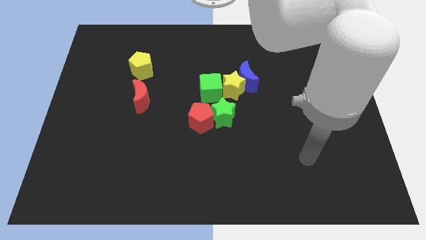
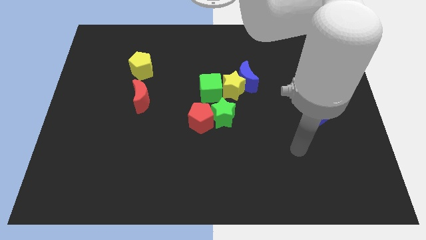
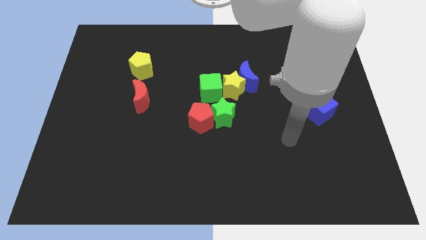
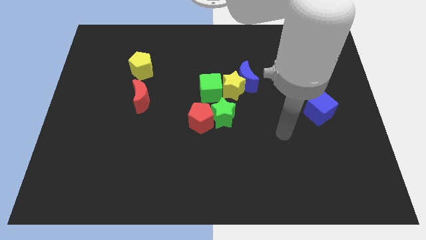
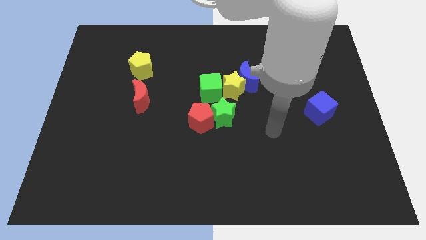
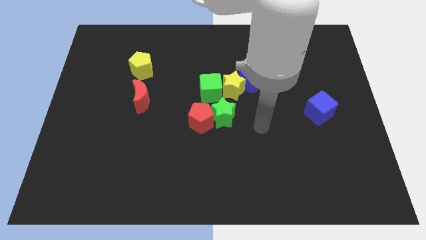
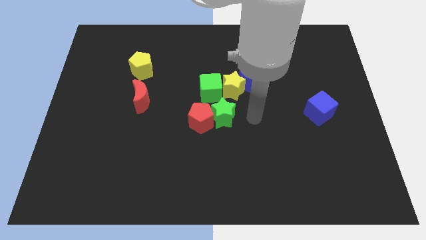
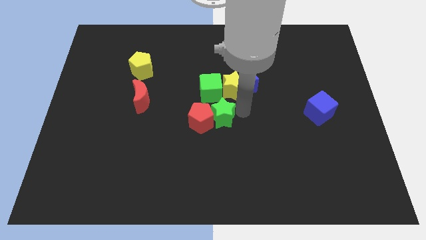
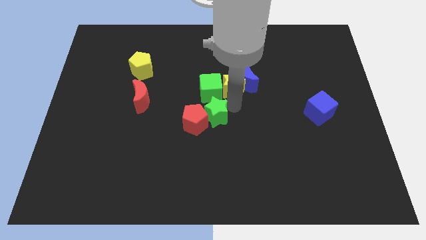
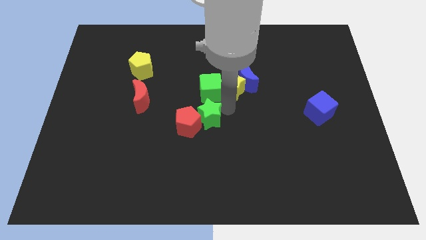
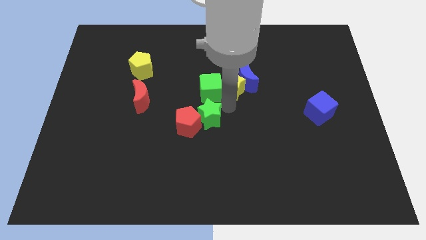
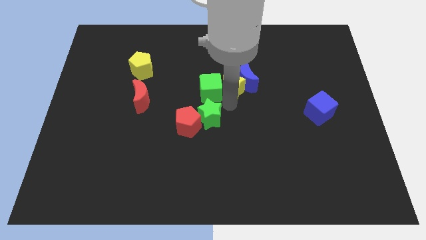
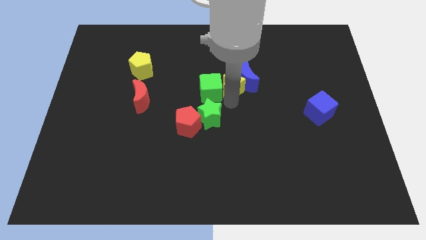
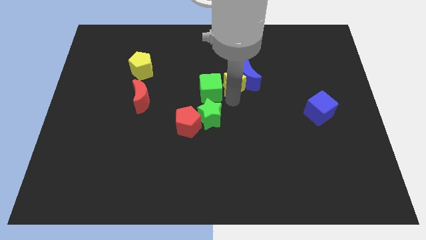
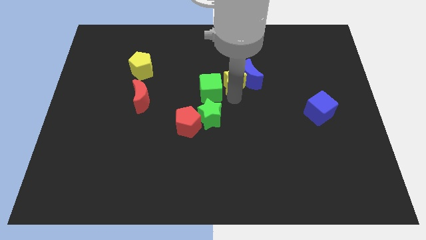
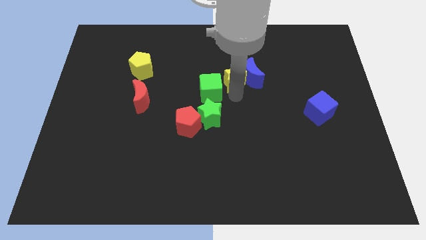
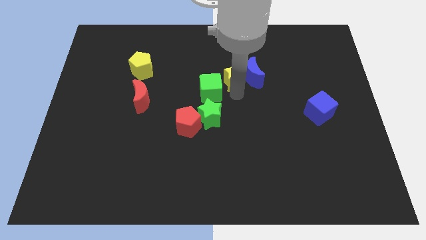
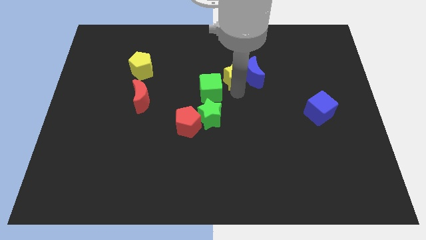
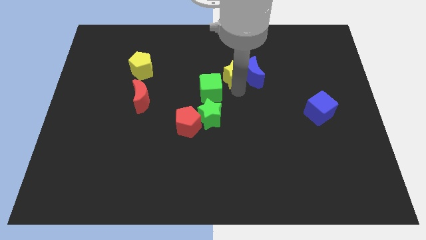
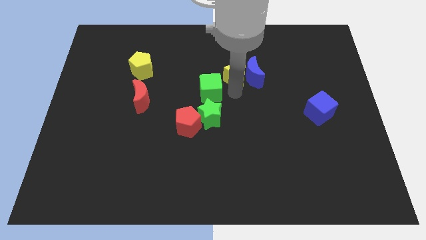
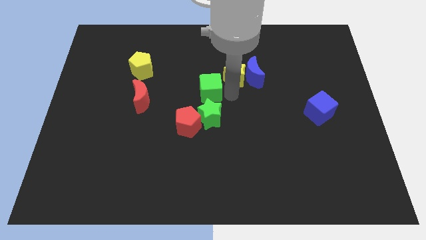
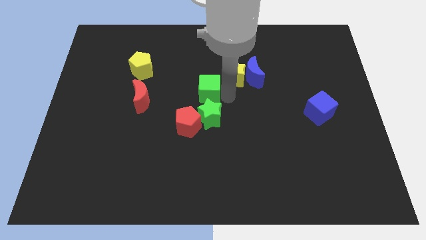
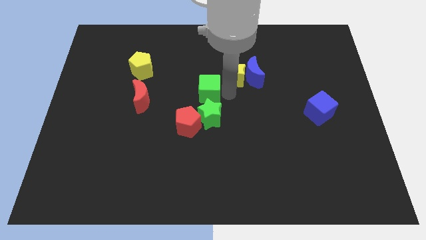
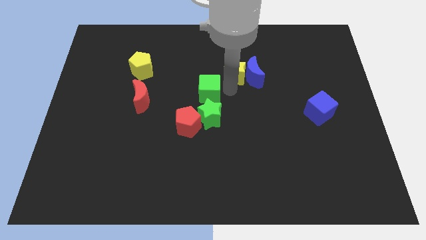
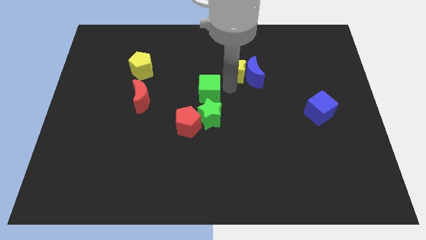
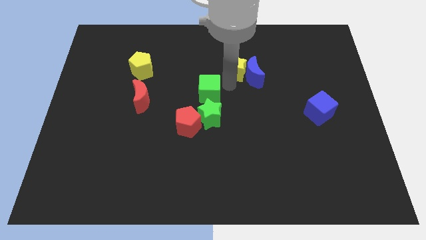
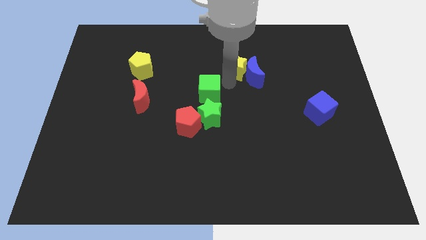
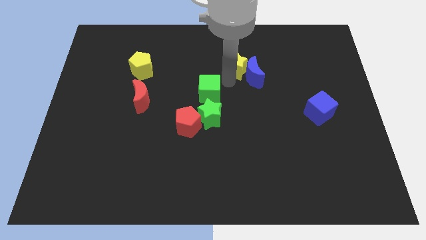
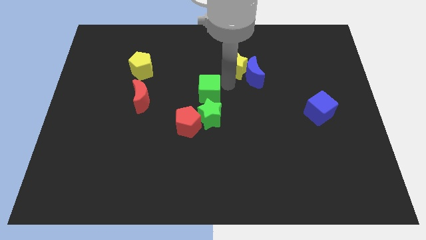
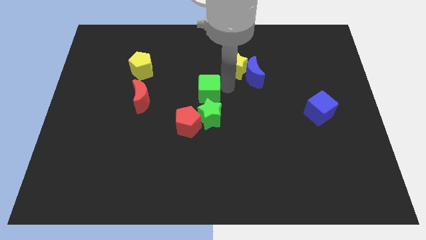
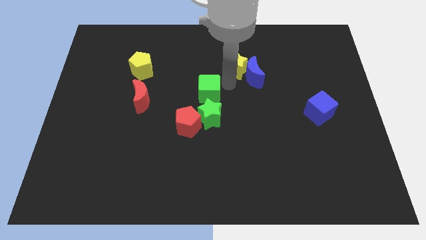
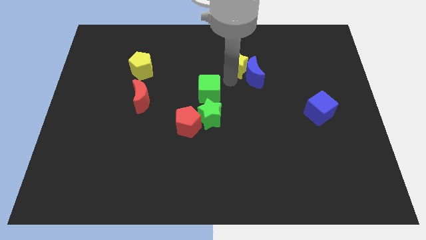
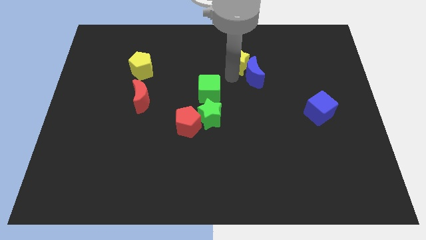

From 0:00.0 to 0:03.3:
pull the yellow star apart from the blue moon, green cube, and green star

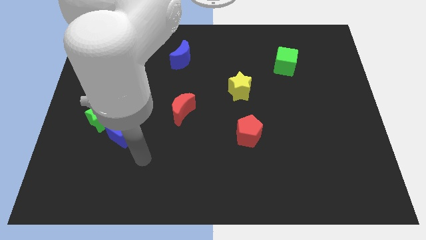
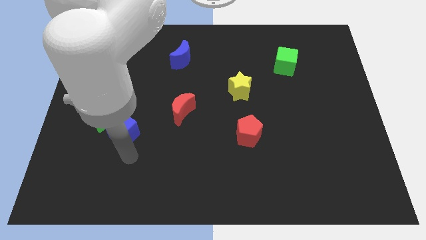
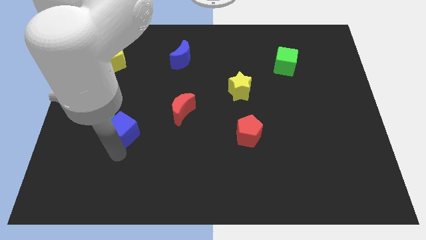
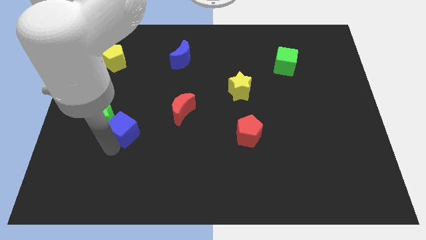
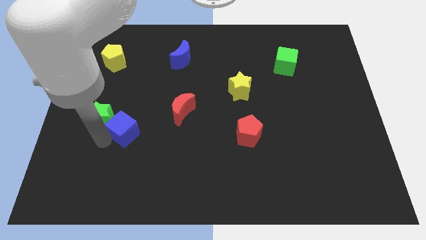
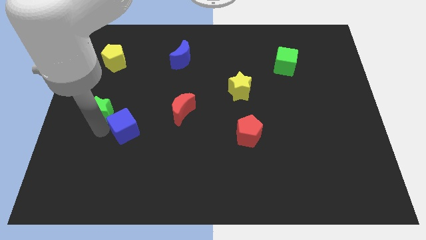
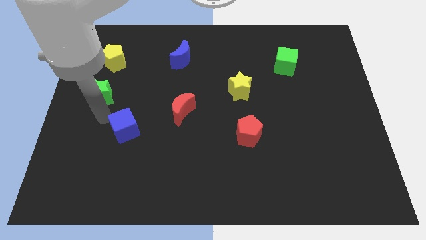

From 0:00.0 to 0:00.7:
separate the blue cube from the green star

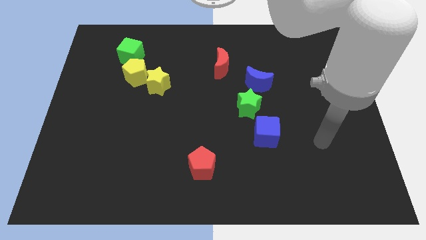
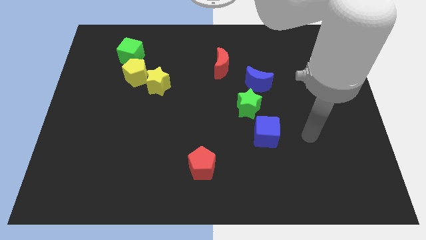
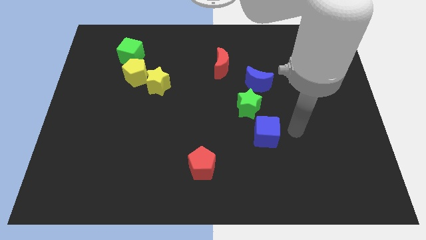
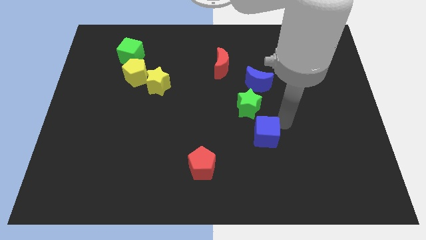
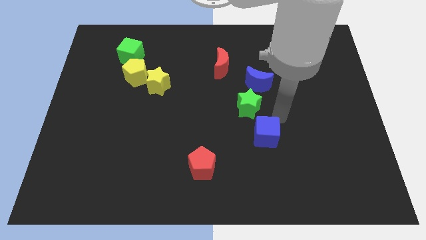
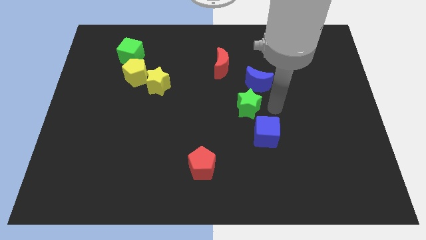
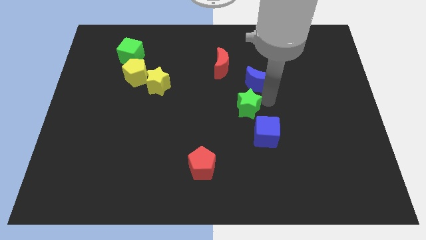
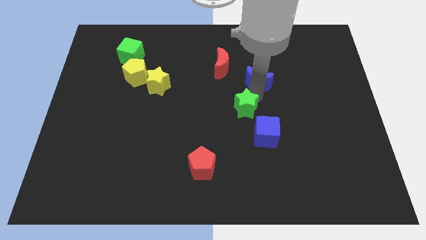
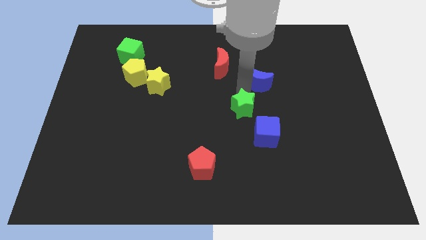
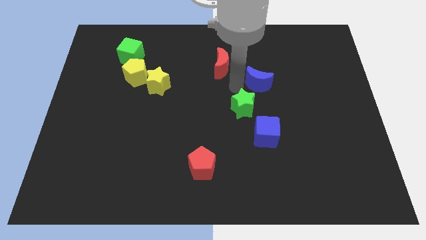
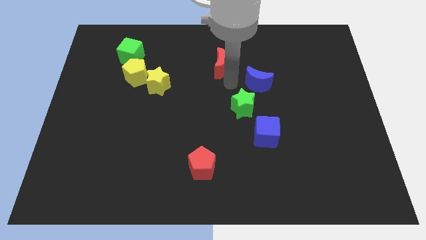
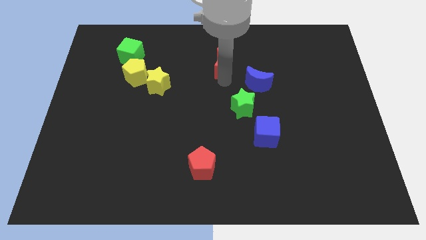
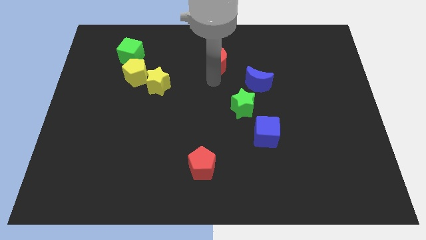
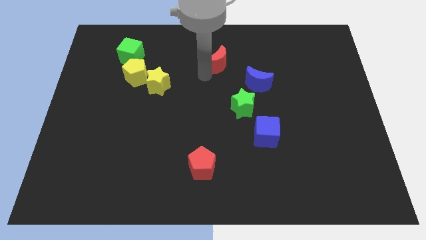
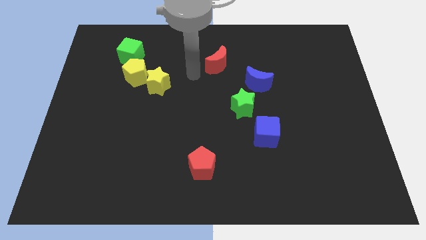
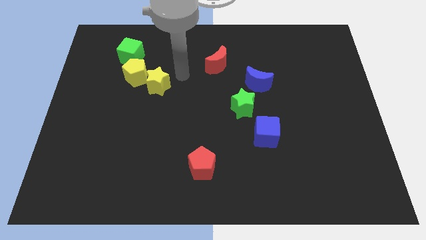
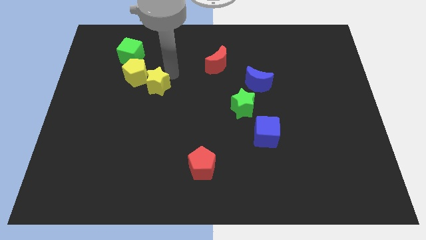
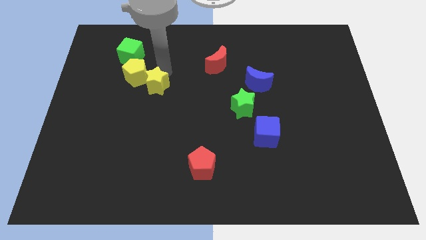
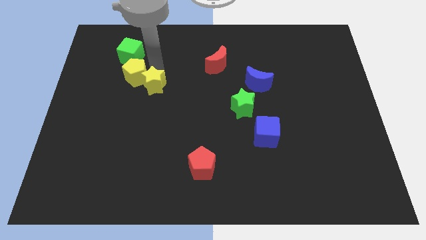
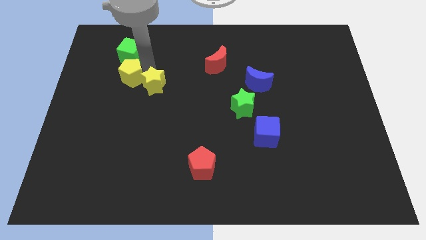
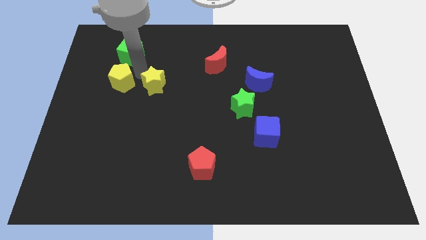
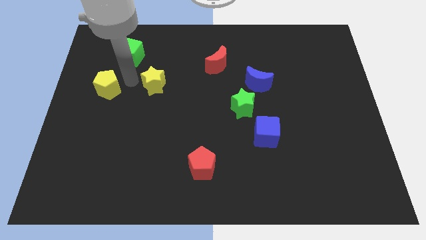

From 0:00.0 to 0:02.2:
pull the yellow star apart from the yellow pentagon

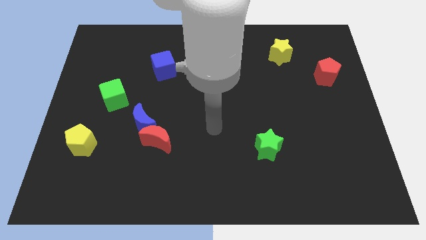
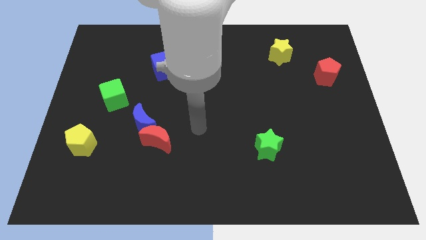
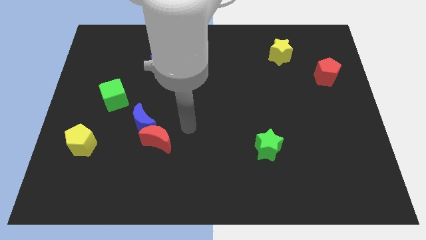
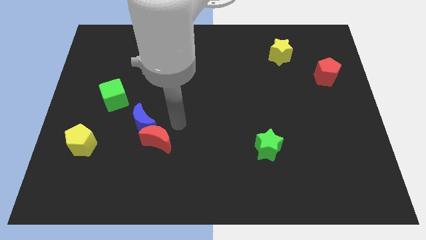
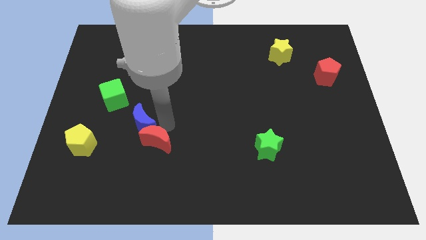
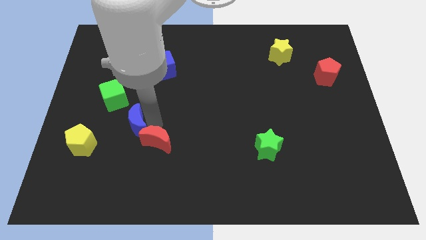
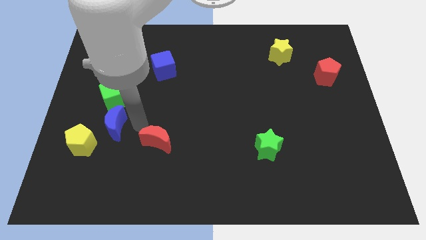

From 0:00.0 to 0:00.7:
pull the red moon apart from the blue moon

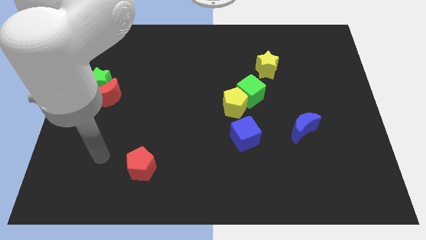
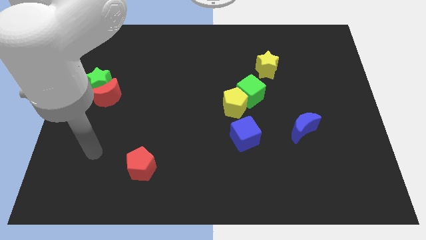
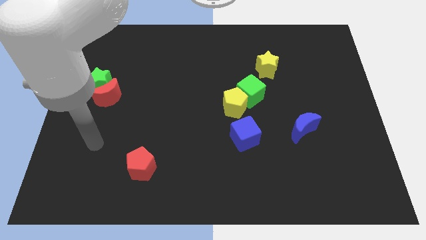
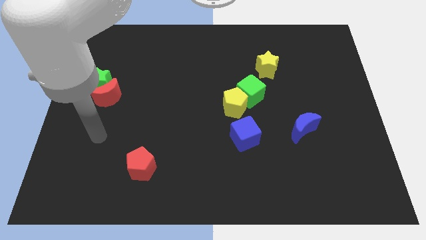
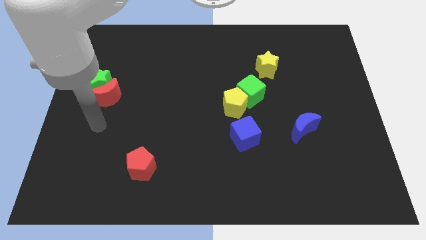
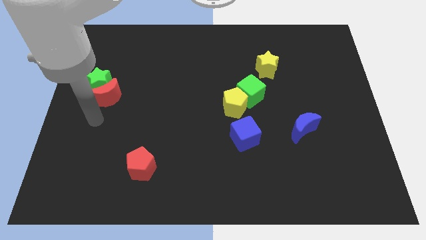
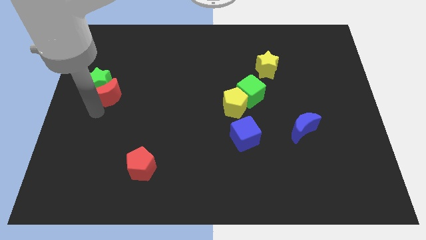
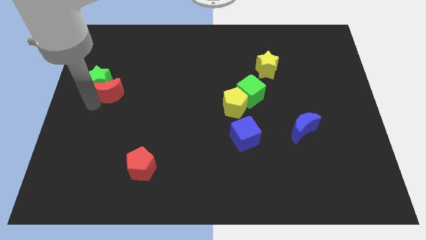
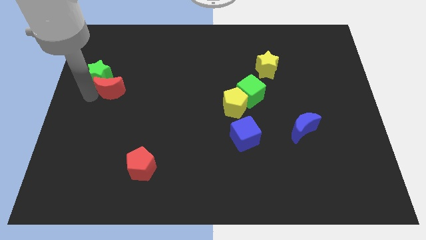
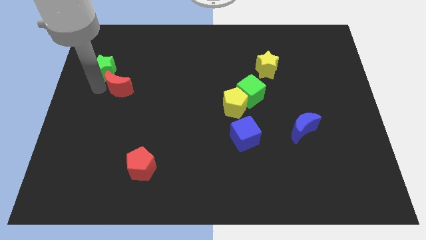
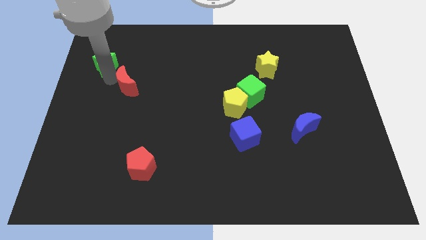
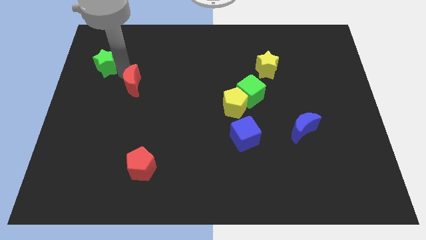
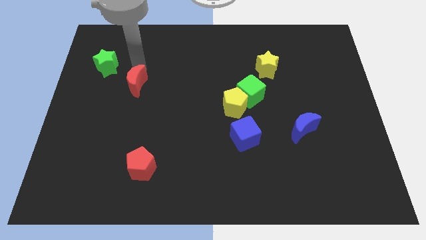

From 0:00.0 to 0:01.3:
separate the red moon from the green star

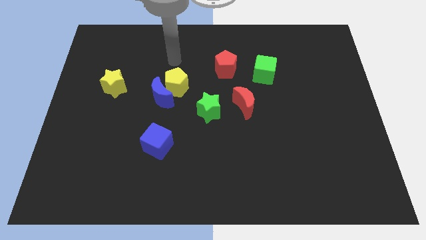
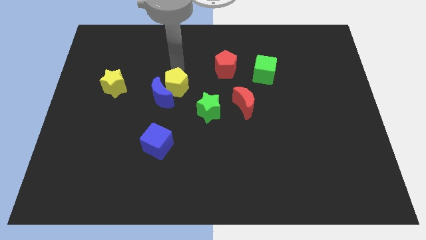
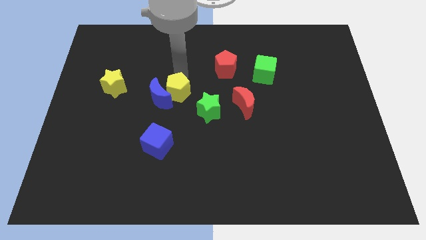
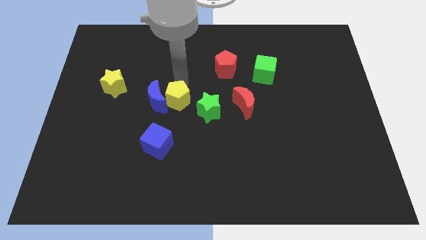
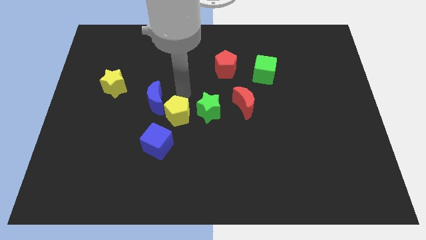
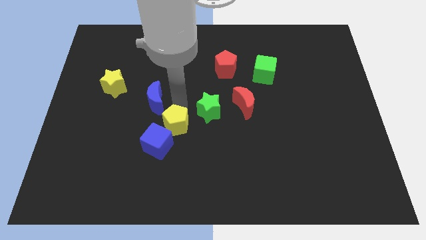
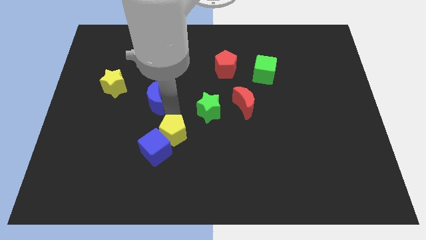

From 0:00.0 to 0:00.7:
separate the blue moon from the yellow pentagon

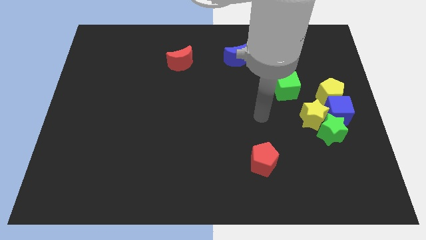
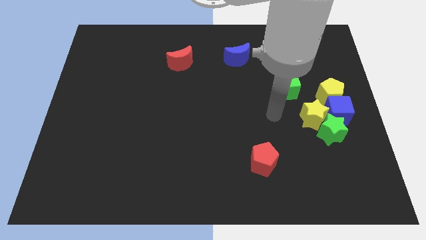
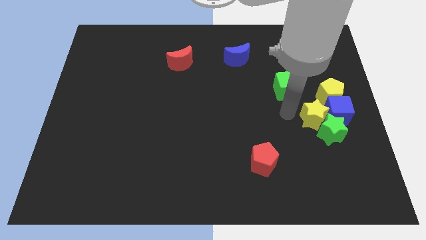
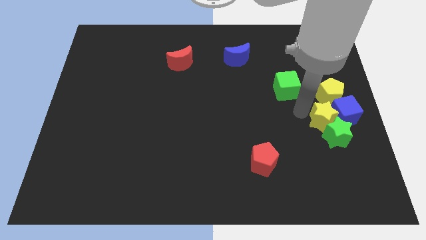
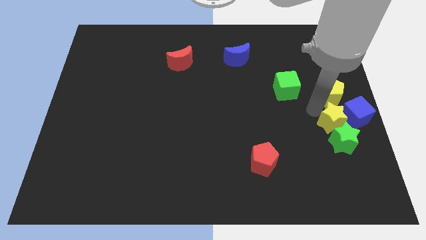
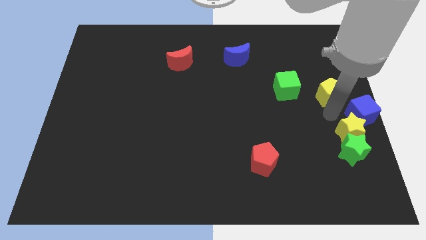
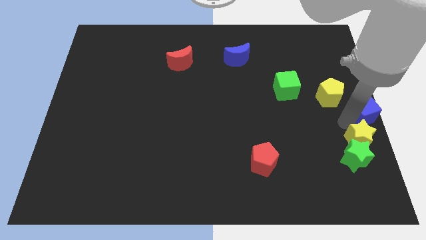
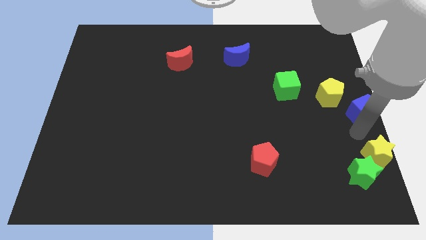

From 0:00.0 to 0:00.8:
separate the green star from the yellow star and blue cube
